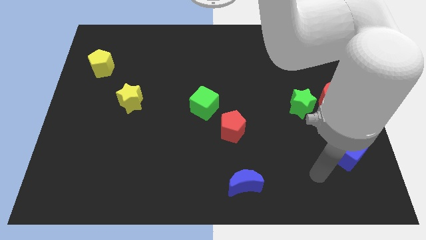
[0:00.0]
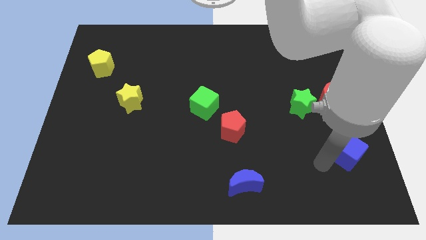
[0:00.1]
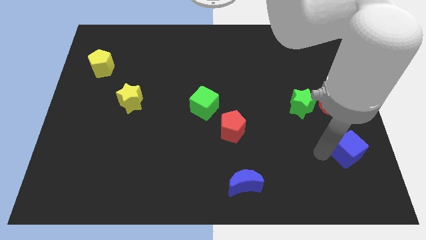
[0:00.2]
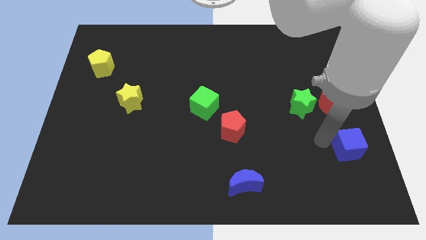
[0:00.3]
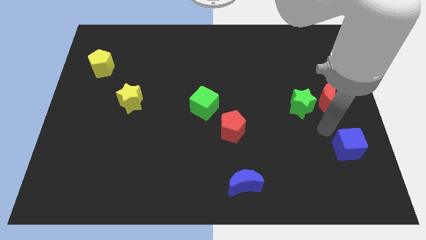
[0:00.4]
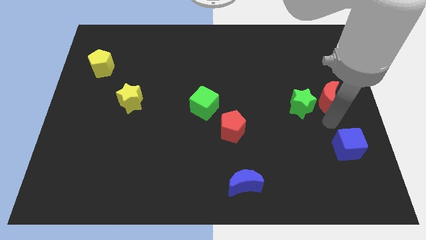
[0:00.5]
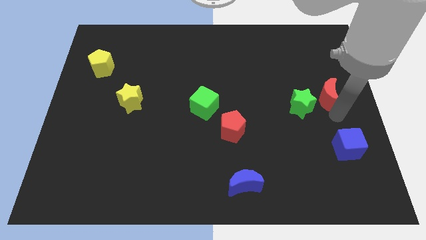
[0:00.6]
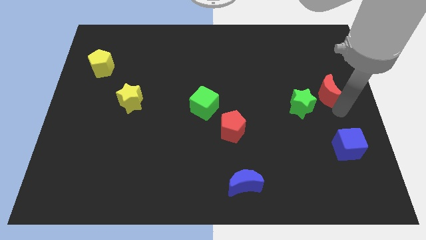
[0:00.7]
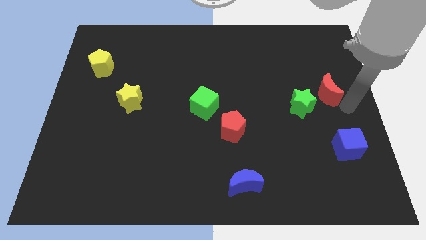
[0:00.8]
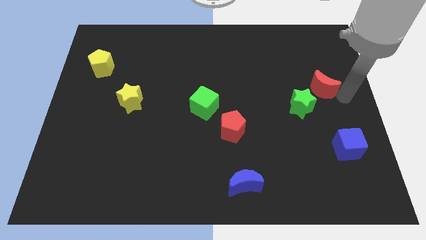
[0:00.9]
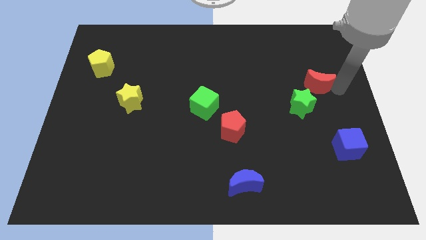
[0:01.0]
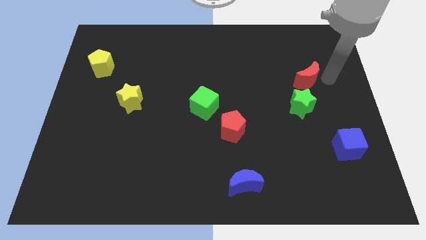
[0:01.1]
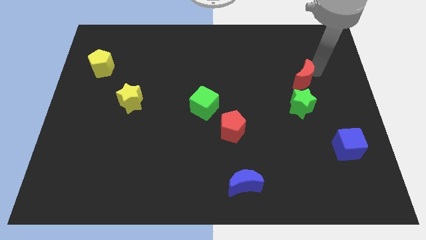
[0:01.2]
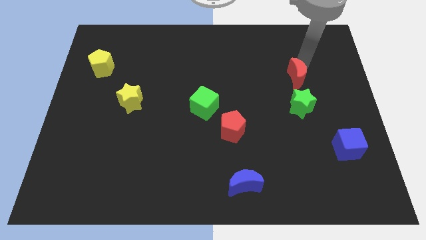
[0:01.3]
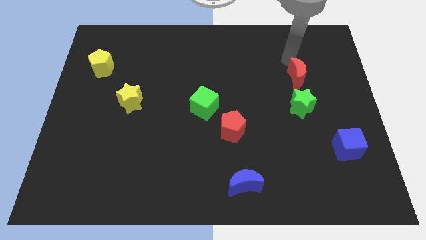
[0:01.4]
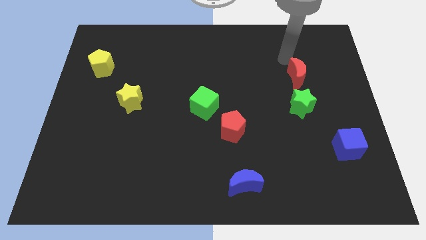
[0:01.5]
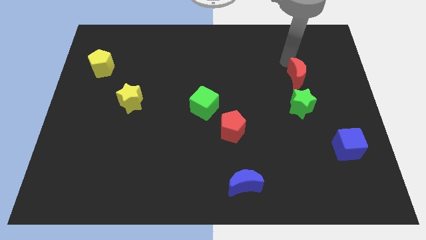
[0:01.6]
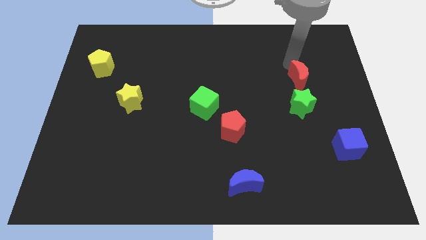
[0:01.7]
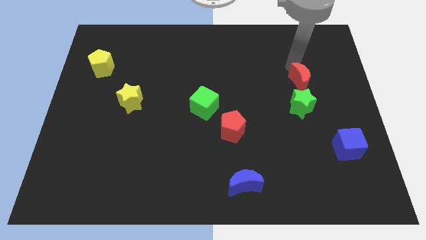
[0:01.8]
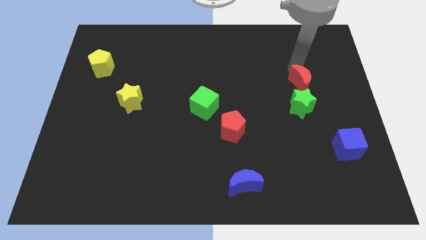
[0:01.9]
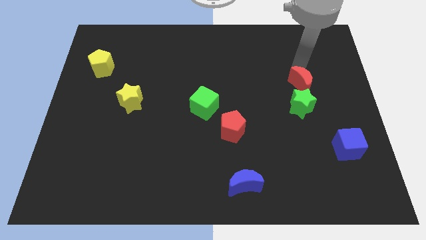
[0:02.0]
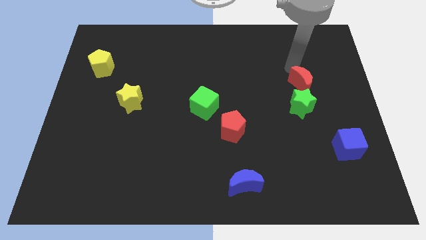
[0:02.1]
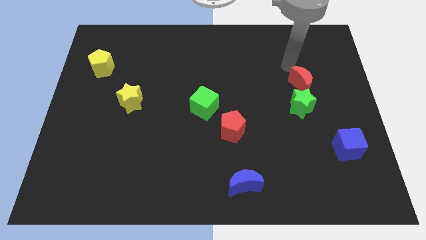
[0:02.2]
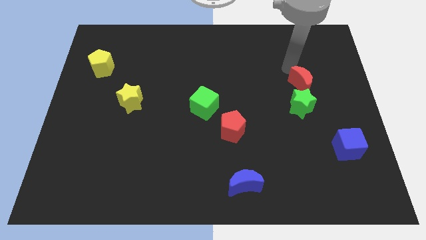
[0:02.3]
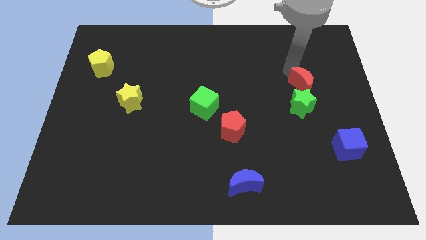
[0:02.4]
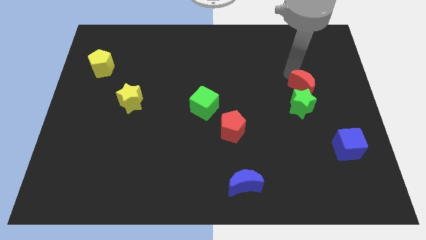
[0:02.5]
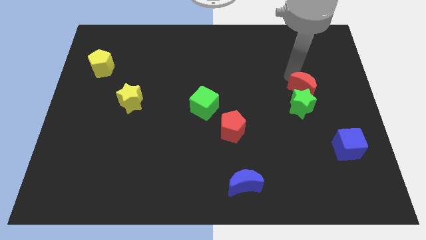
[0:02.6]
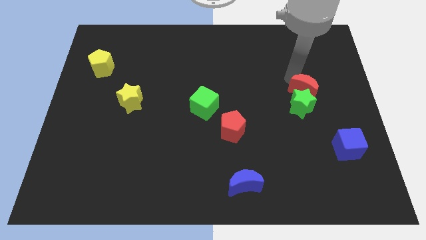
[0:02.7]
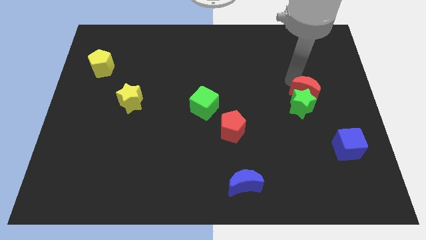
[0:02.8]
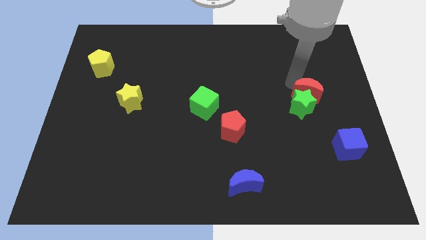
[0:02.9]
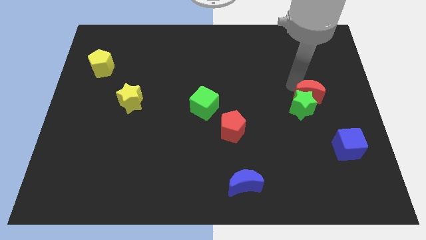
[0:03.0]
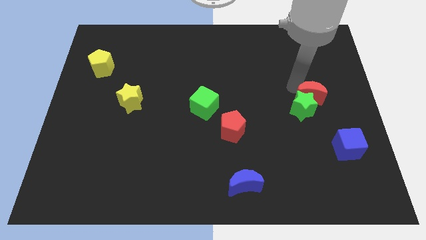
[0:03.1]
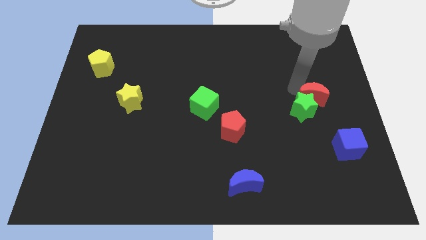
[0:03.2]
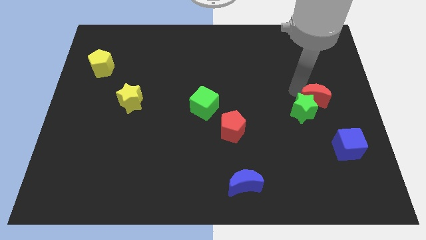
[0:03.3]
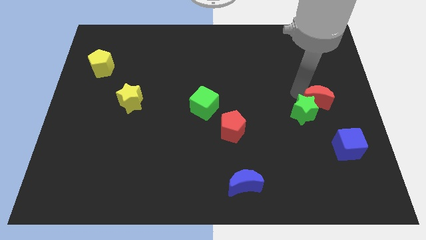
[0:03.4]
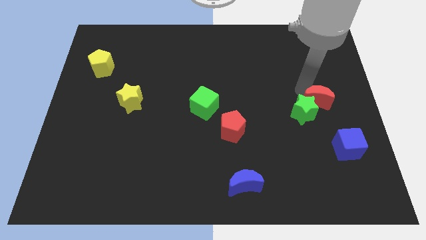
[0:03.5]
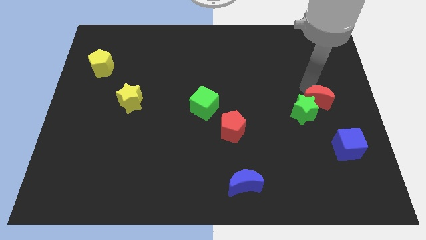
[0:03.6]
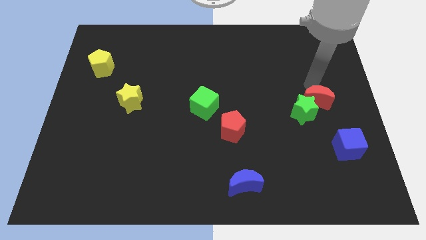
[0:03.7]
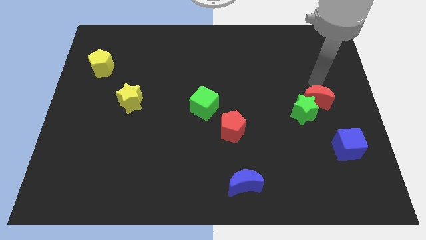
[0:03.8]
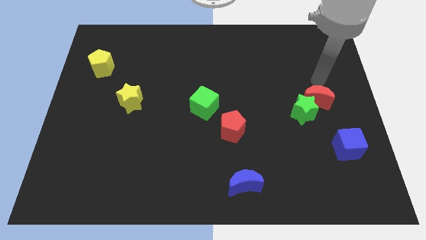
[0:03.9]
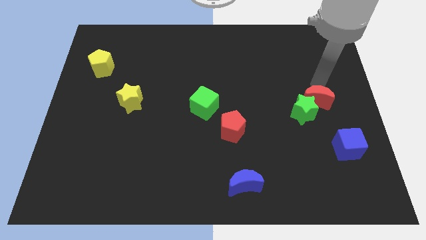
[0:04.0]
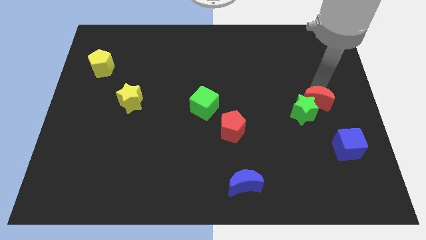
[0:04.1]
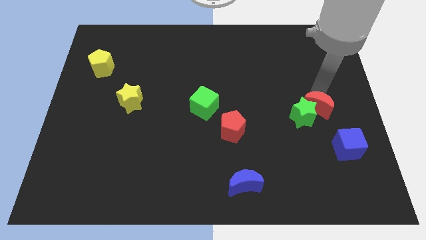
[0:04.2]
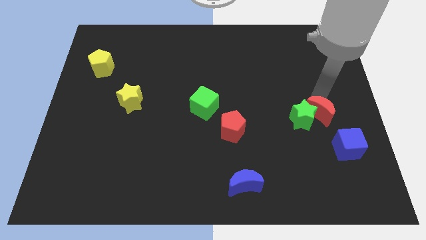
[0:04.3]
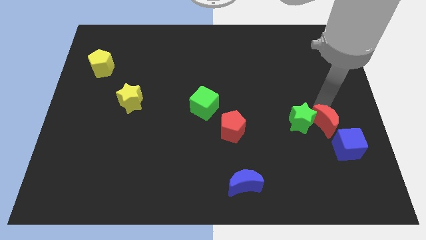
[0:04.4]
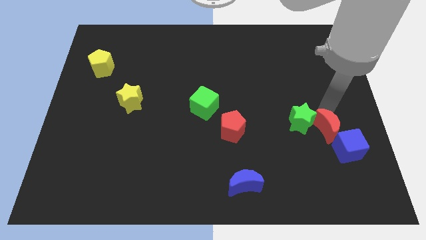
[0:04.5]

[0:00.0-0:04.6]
slide the red moon downwards a bit

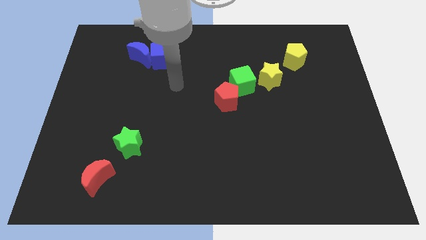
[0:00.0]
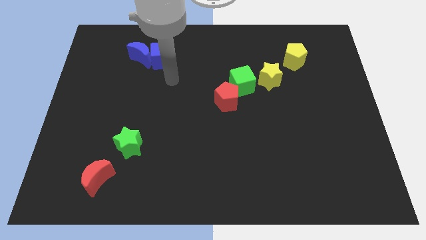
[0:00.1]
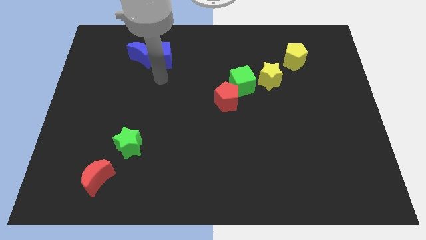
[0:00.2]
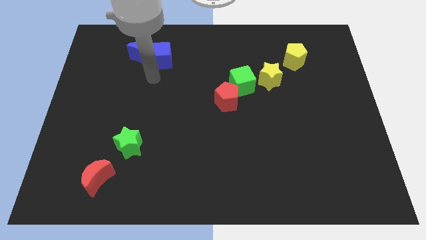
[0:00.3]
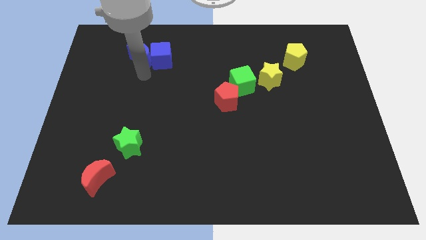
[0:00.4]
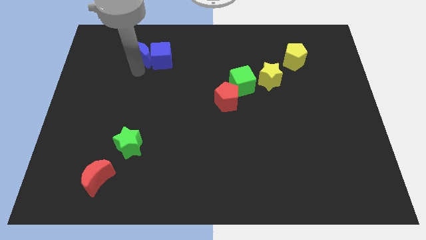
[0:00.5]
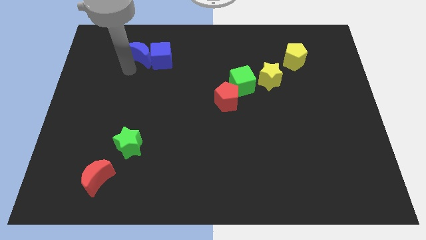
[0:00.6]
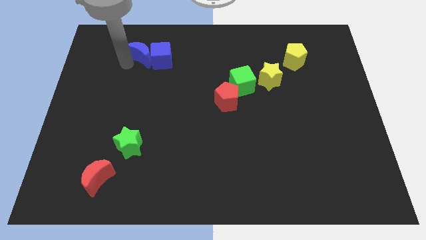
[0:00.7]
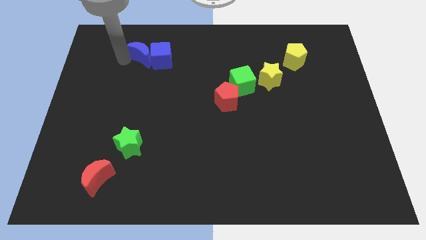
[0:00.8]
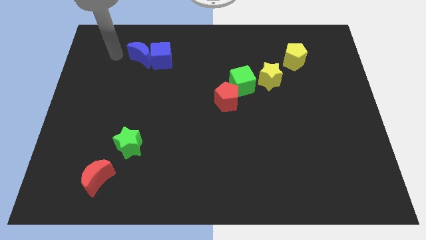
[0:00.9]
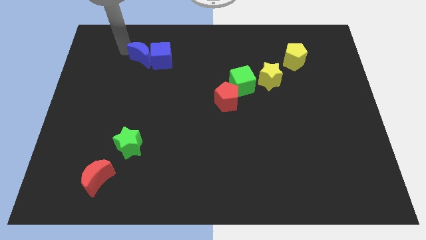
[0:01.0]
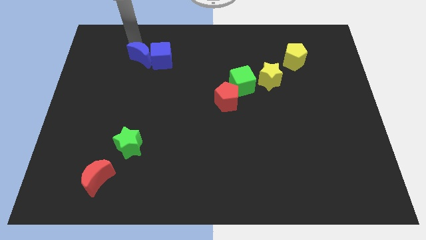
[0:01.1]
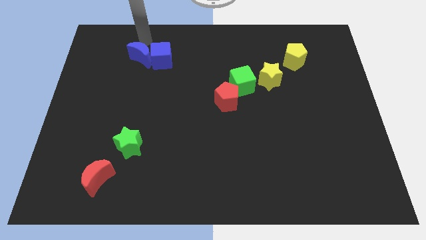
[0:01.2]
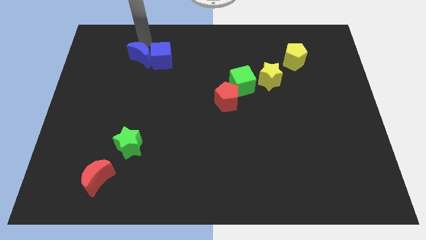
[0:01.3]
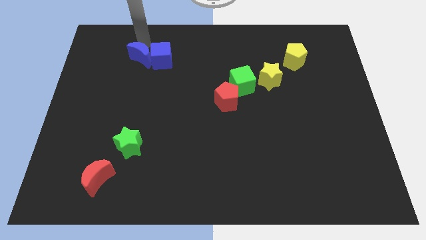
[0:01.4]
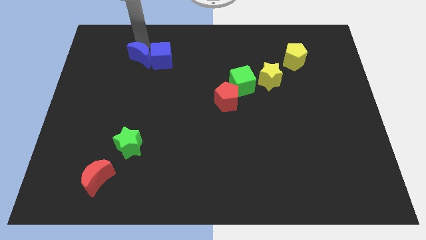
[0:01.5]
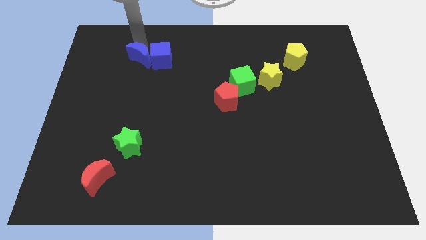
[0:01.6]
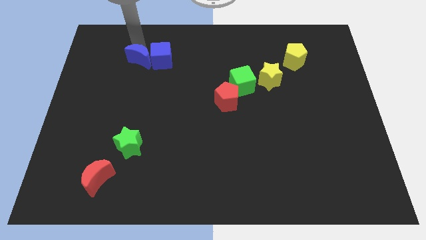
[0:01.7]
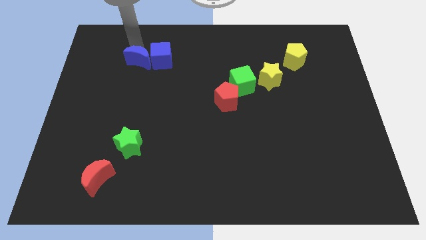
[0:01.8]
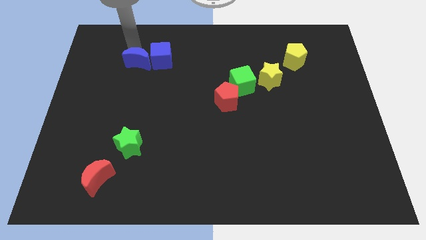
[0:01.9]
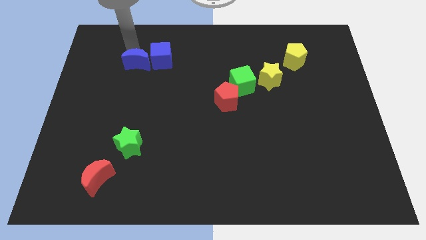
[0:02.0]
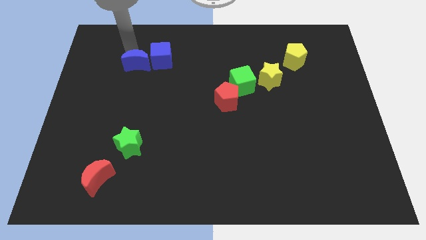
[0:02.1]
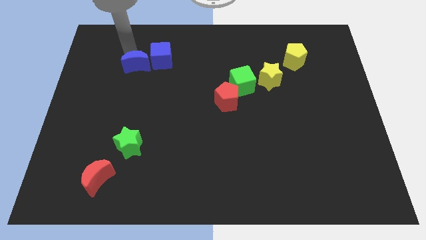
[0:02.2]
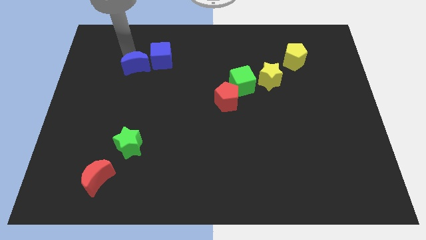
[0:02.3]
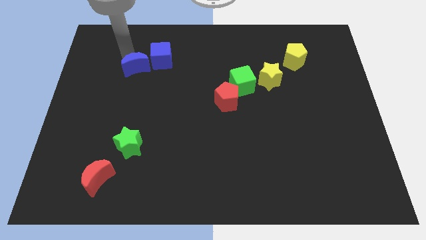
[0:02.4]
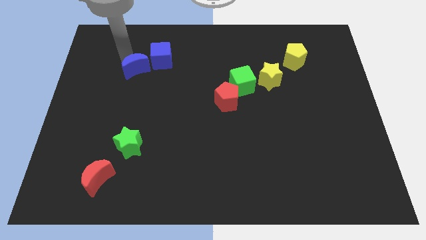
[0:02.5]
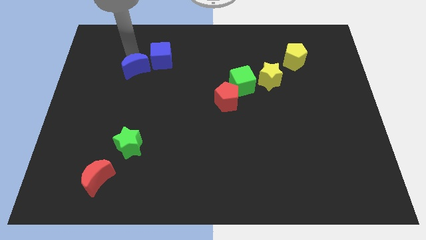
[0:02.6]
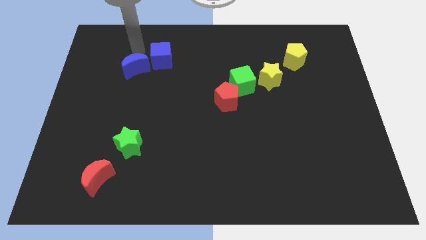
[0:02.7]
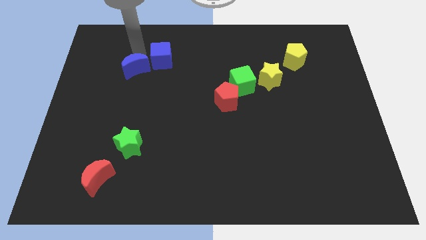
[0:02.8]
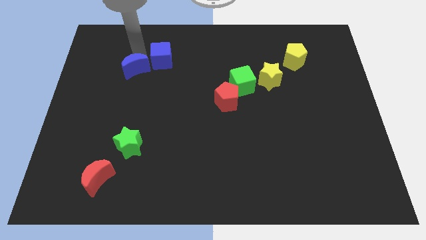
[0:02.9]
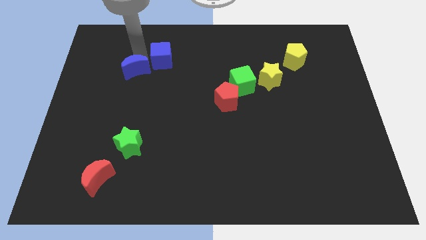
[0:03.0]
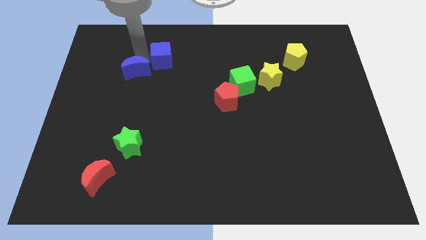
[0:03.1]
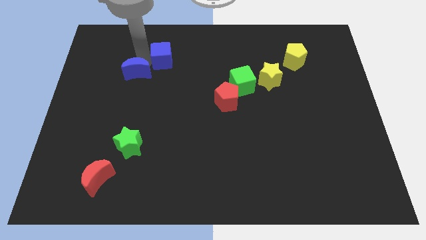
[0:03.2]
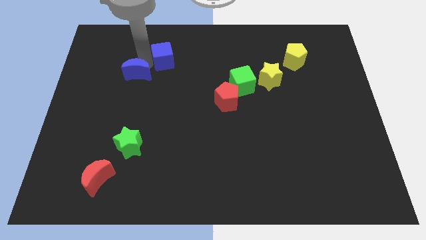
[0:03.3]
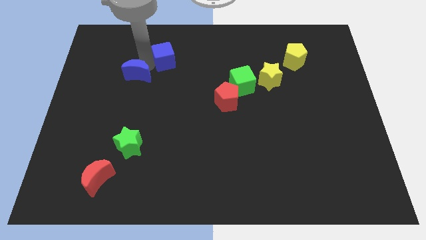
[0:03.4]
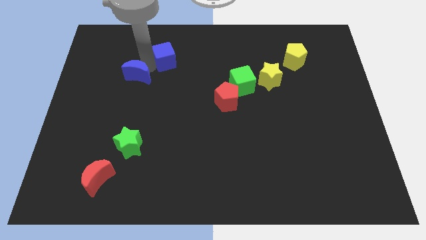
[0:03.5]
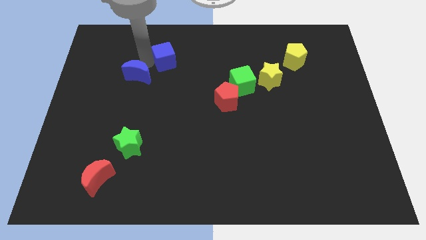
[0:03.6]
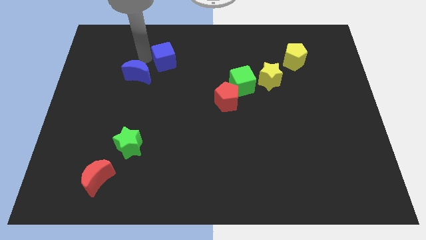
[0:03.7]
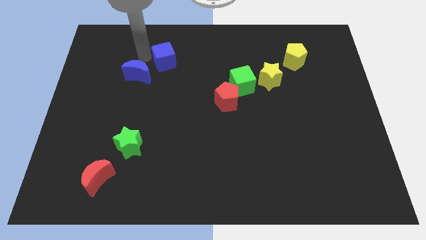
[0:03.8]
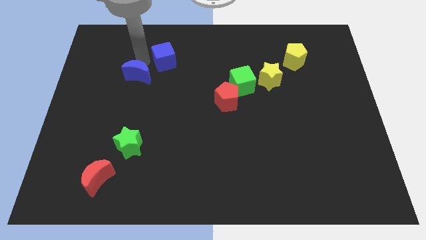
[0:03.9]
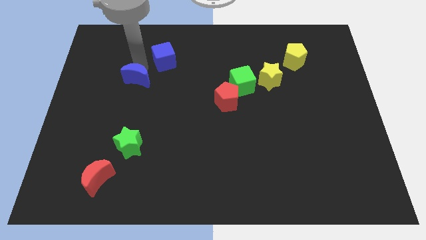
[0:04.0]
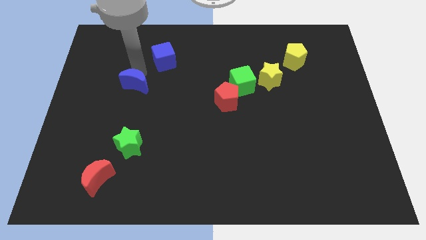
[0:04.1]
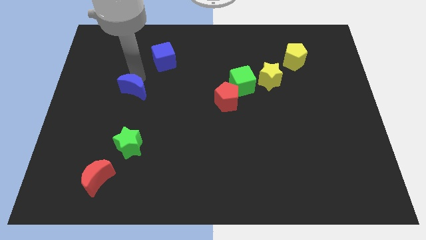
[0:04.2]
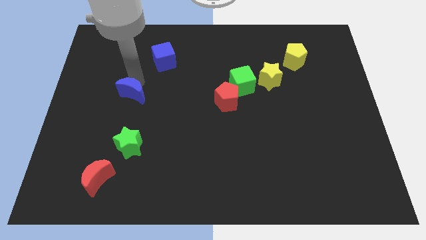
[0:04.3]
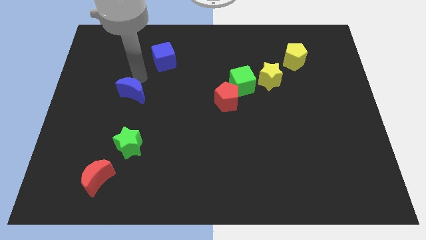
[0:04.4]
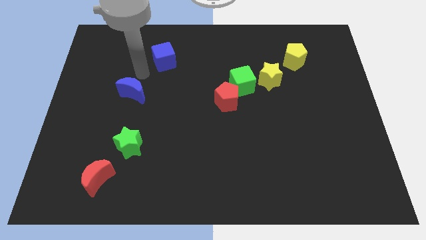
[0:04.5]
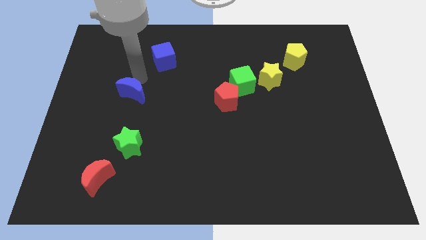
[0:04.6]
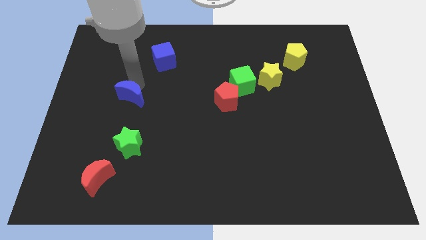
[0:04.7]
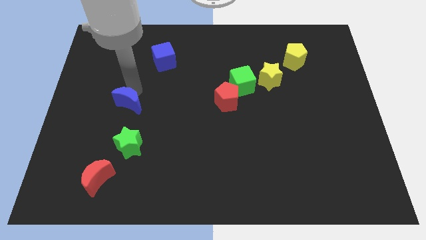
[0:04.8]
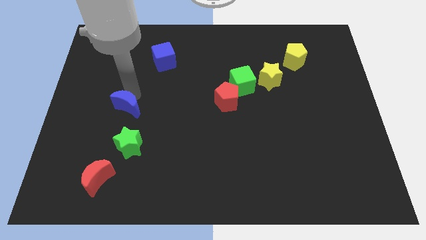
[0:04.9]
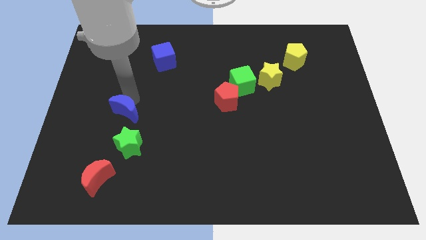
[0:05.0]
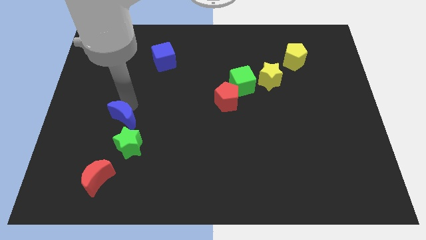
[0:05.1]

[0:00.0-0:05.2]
slide the blue moon down
